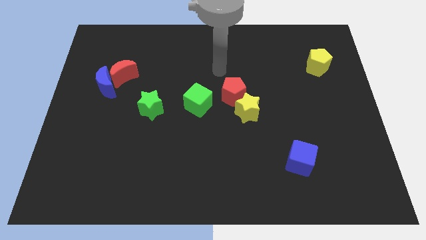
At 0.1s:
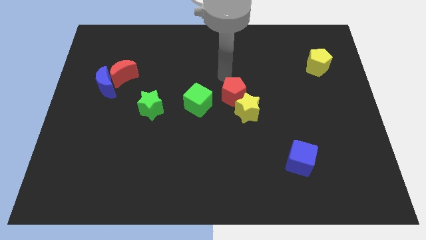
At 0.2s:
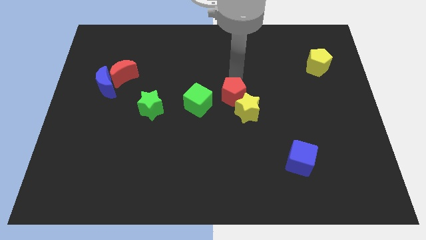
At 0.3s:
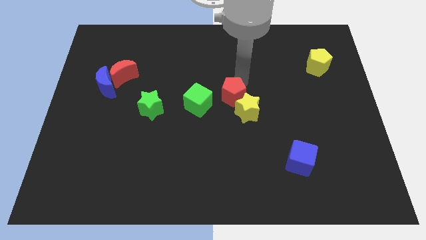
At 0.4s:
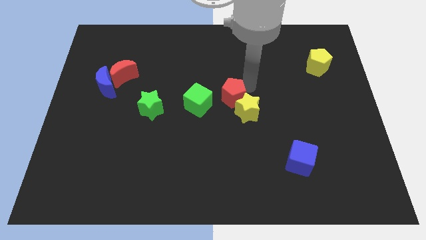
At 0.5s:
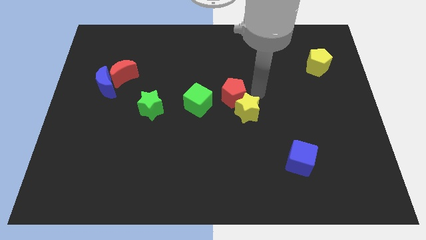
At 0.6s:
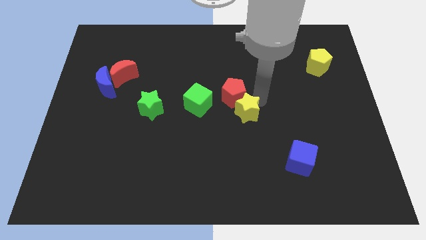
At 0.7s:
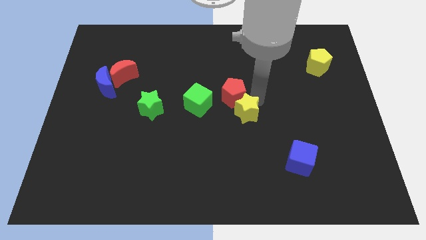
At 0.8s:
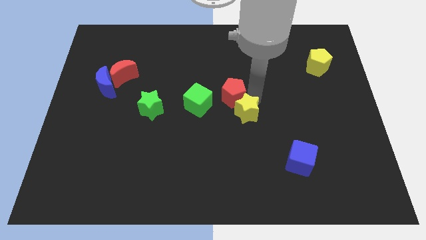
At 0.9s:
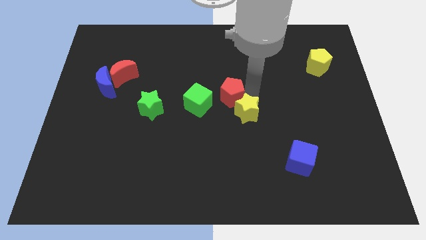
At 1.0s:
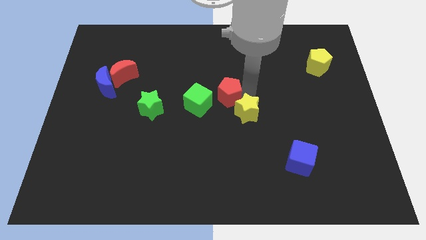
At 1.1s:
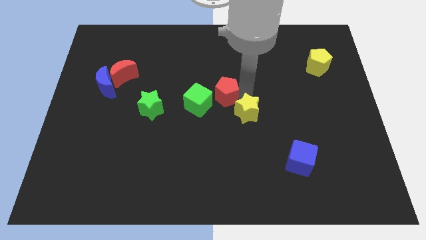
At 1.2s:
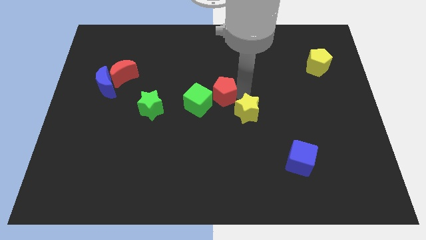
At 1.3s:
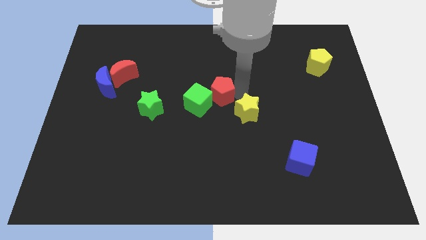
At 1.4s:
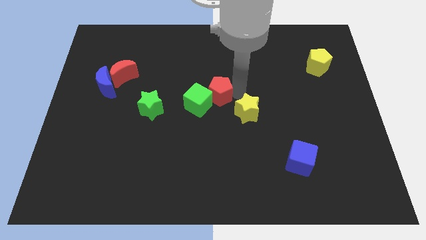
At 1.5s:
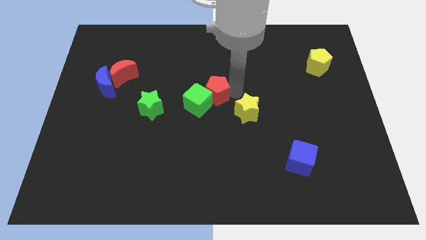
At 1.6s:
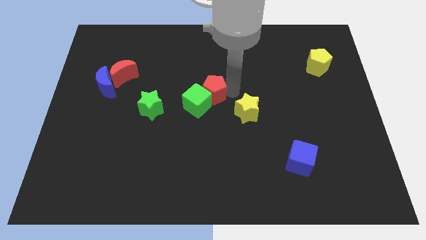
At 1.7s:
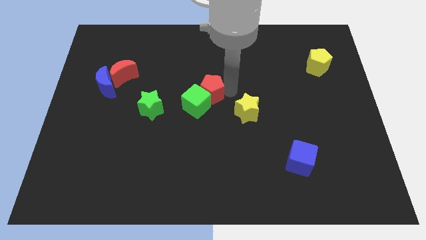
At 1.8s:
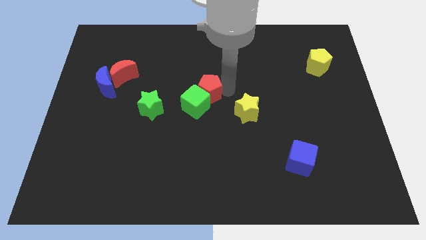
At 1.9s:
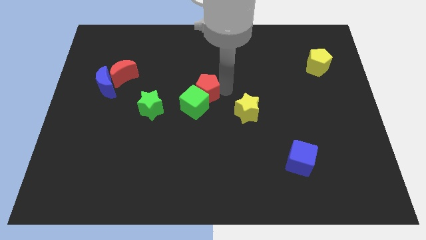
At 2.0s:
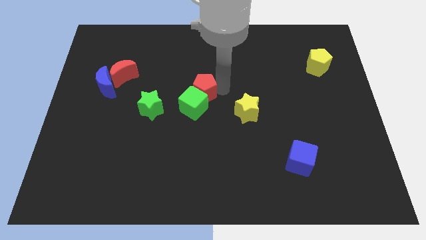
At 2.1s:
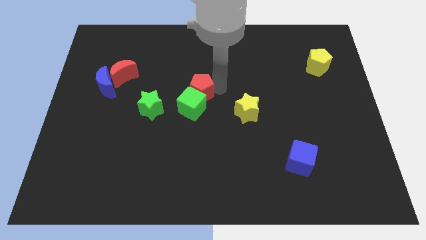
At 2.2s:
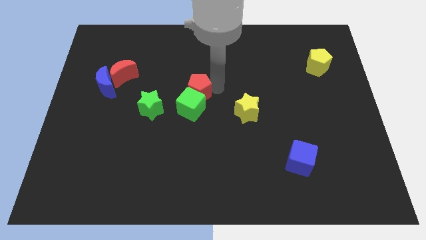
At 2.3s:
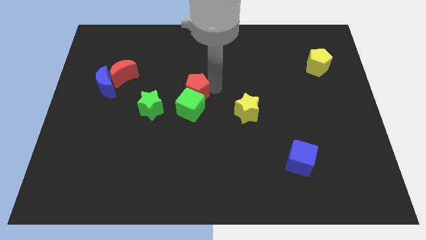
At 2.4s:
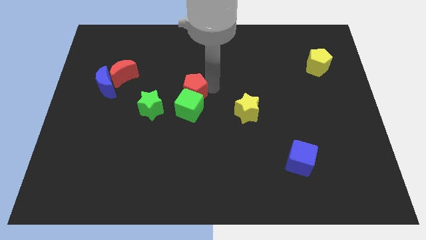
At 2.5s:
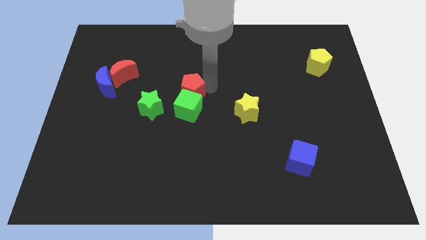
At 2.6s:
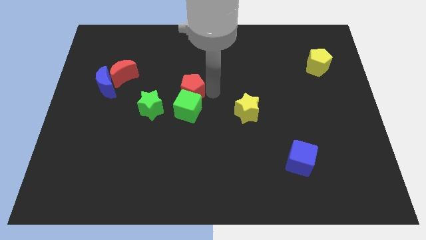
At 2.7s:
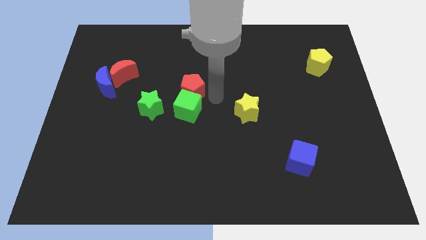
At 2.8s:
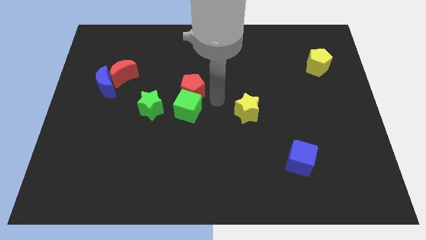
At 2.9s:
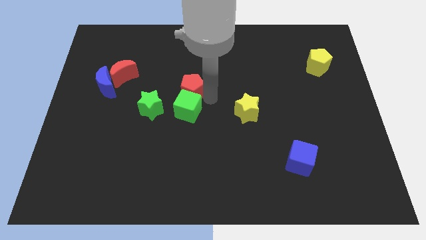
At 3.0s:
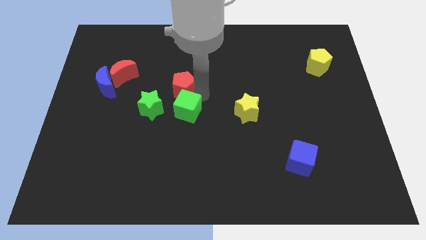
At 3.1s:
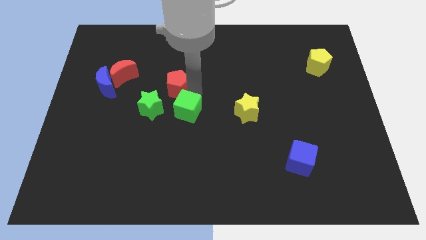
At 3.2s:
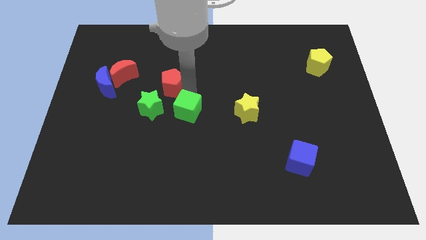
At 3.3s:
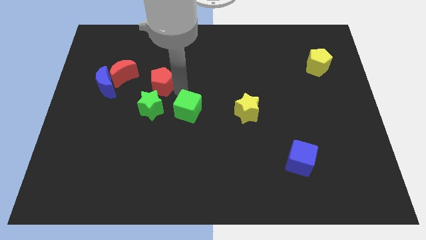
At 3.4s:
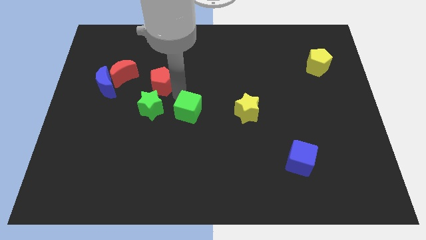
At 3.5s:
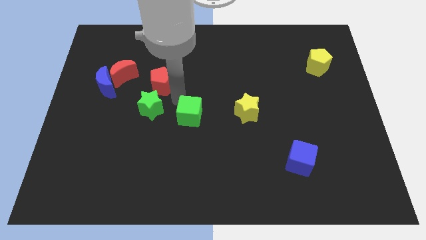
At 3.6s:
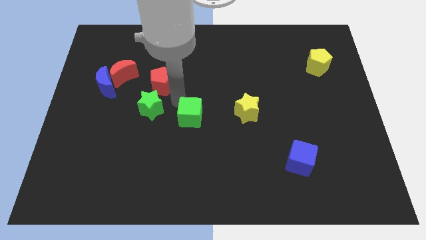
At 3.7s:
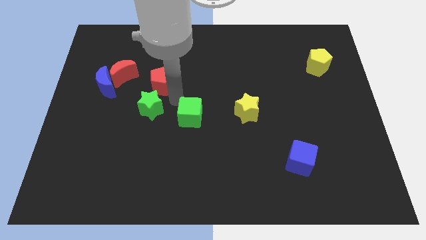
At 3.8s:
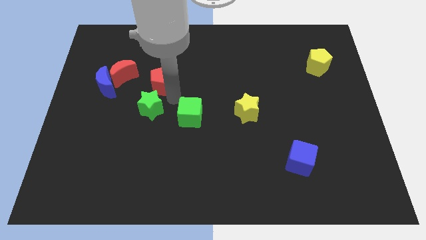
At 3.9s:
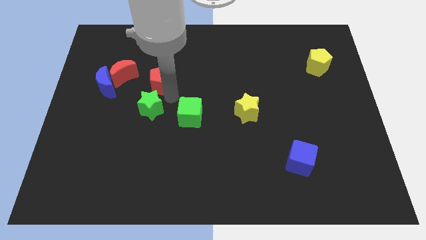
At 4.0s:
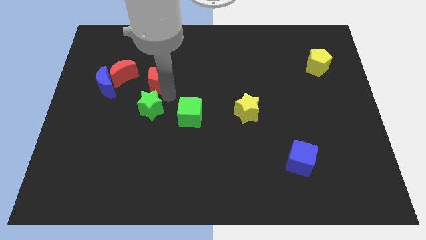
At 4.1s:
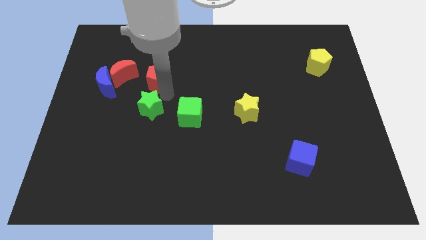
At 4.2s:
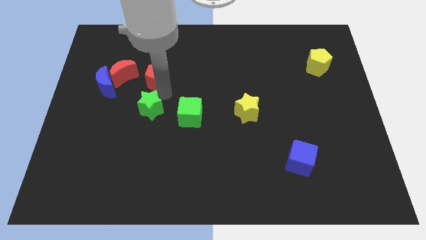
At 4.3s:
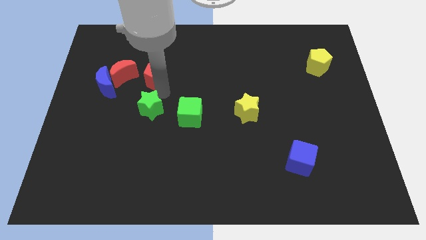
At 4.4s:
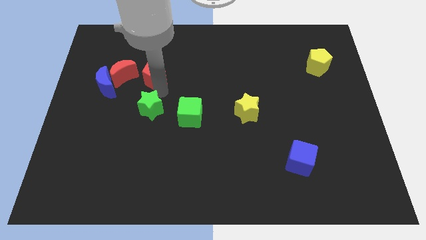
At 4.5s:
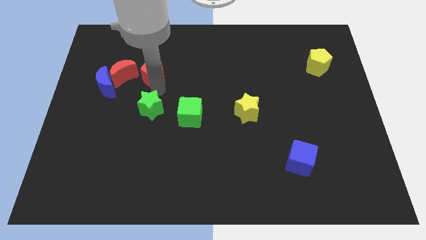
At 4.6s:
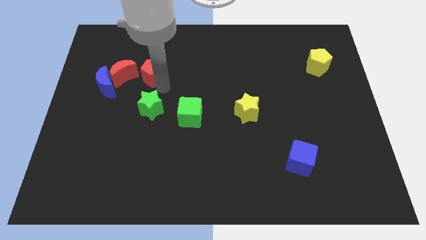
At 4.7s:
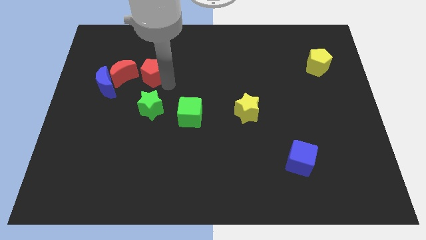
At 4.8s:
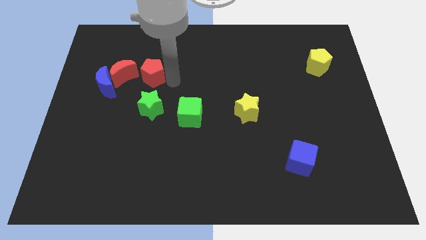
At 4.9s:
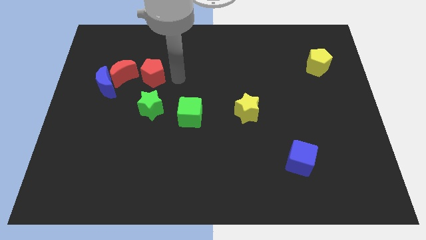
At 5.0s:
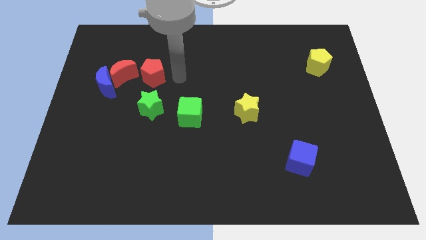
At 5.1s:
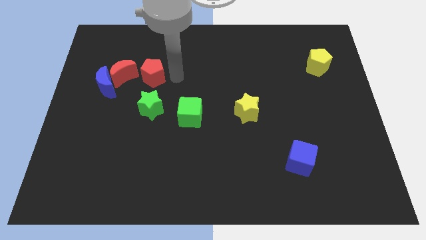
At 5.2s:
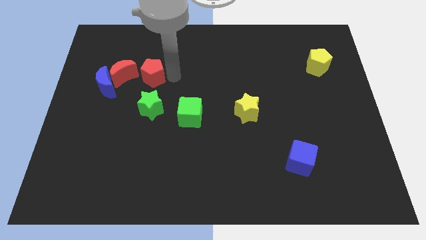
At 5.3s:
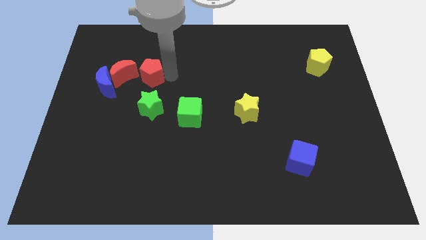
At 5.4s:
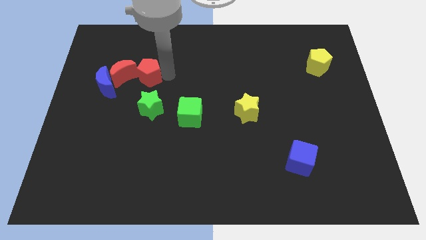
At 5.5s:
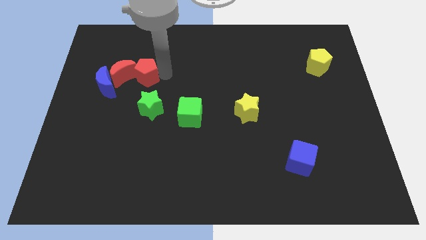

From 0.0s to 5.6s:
move the red pentagon towards the red moon

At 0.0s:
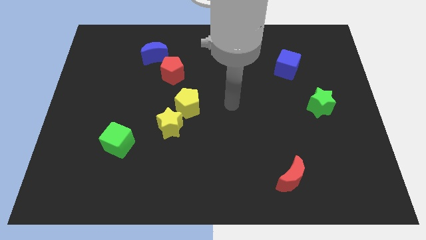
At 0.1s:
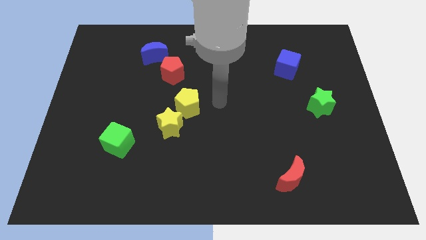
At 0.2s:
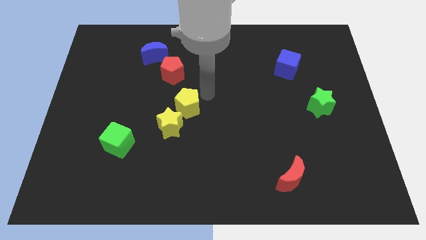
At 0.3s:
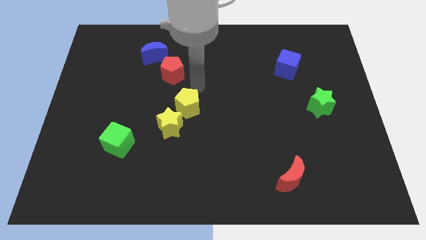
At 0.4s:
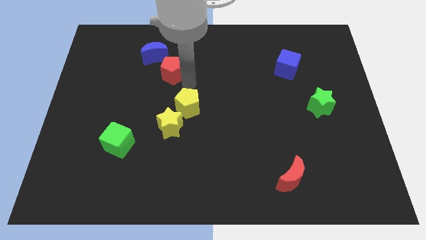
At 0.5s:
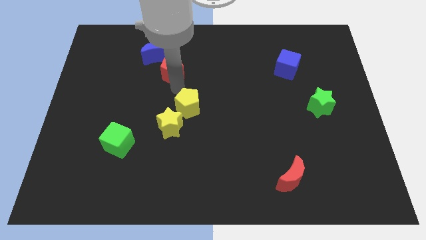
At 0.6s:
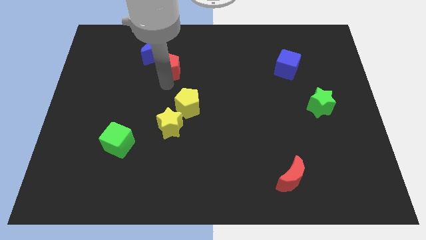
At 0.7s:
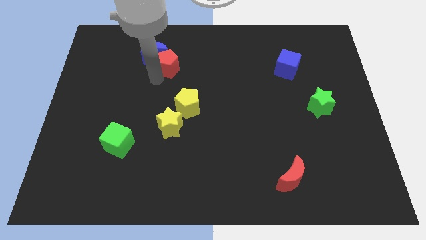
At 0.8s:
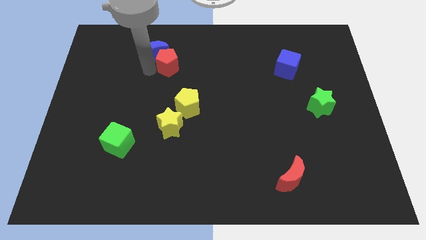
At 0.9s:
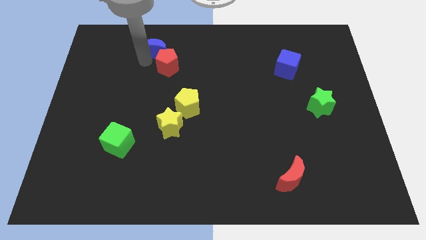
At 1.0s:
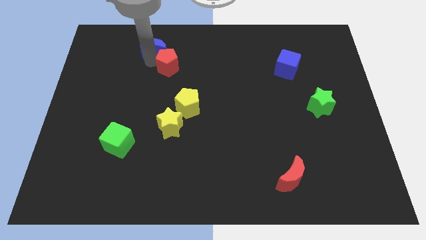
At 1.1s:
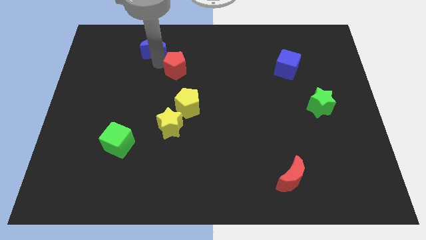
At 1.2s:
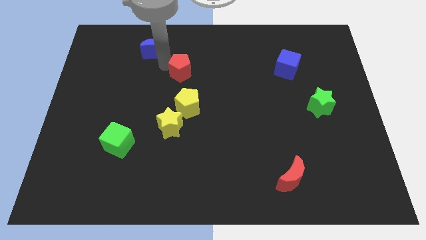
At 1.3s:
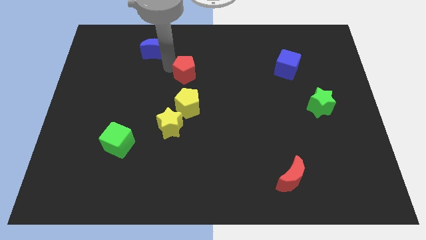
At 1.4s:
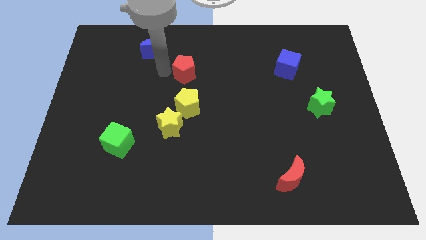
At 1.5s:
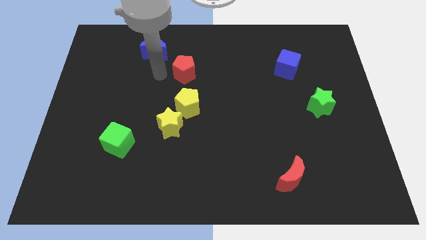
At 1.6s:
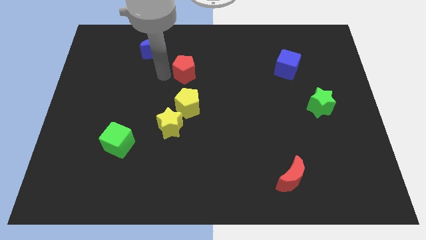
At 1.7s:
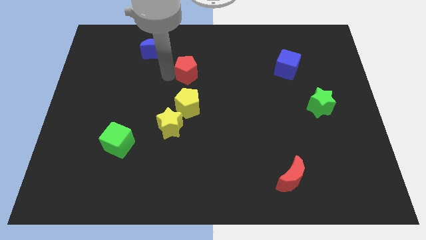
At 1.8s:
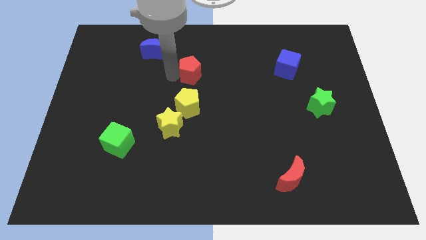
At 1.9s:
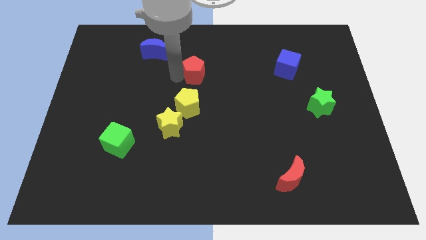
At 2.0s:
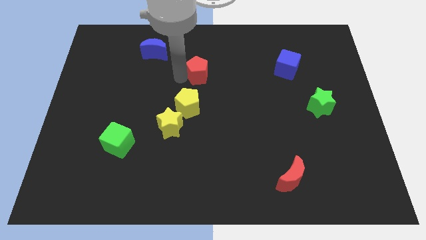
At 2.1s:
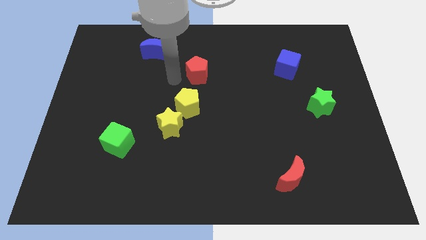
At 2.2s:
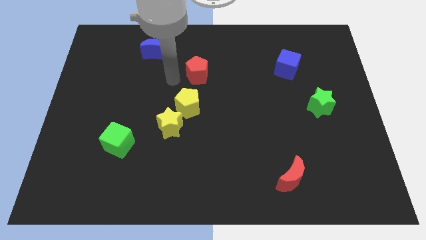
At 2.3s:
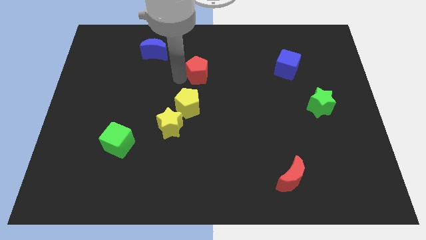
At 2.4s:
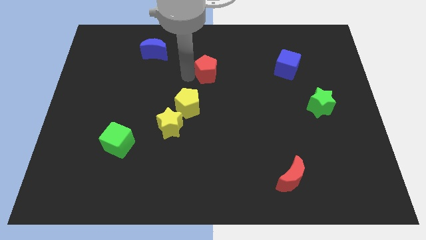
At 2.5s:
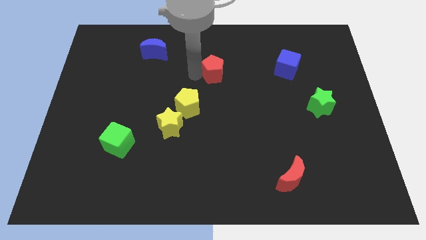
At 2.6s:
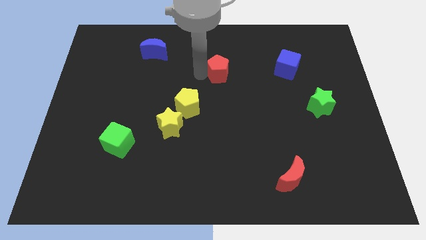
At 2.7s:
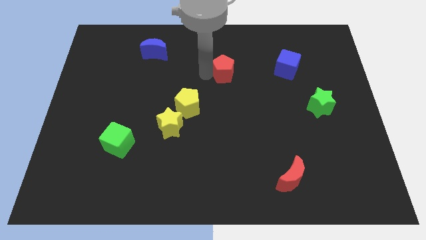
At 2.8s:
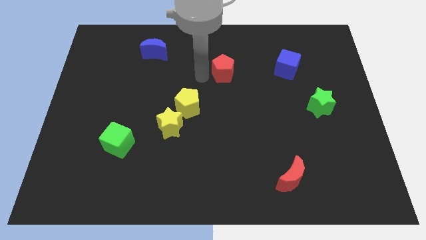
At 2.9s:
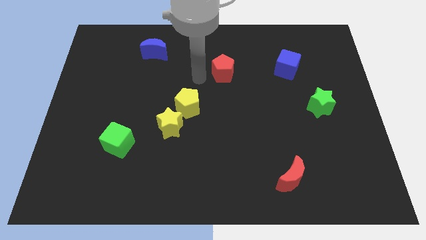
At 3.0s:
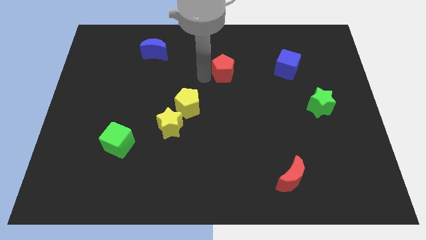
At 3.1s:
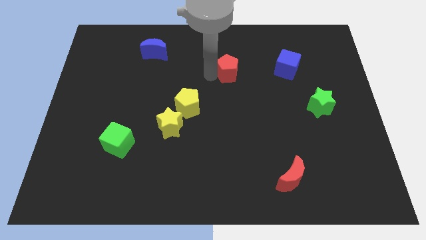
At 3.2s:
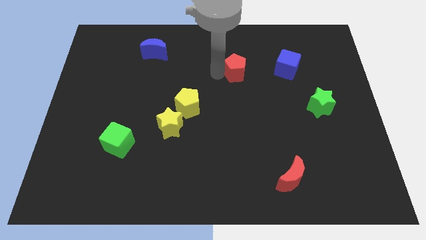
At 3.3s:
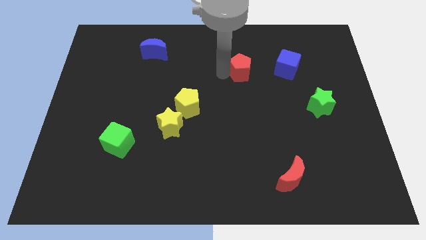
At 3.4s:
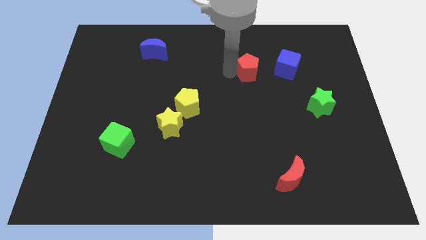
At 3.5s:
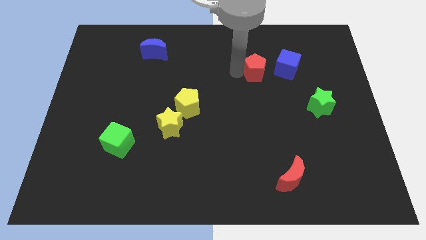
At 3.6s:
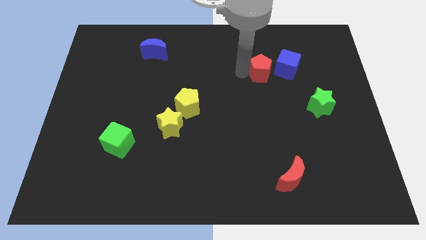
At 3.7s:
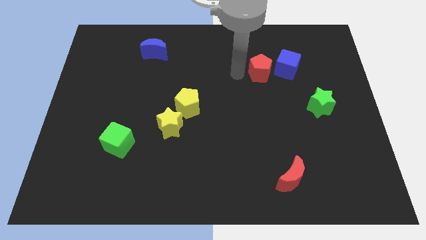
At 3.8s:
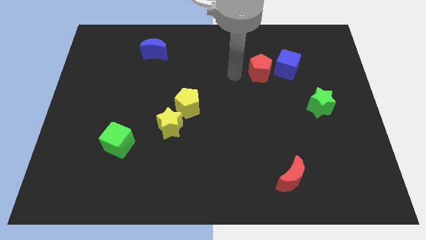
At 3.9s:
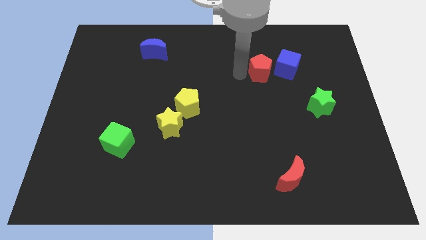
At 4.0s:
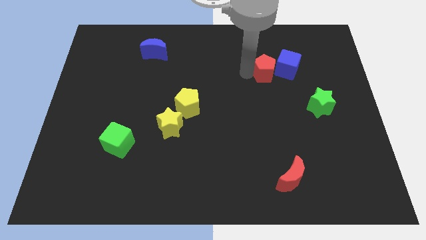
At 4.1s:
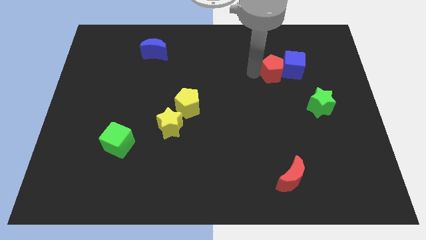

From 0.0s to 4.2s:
slide the red pentagon next to the blue cube
